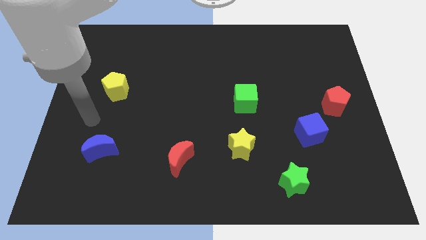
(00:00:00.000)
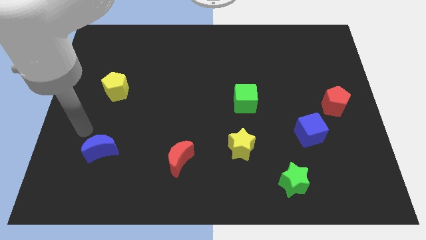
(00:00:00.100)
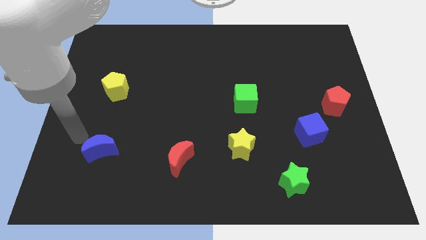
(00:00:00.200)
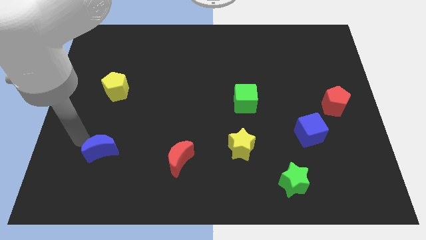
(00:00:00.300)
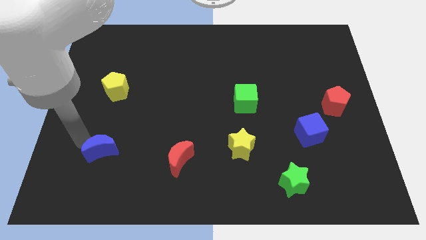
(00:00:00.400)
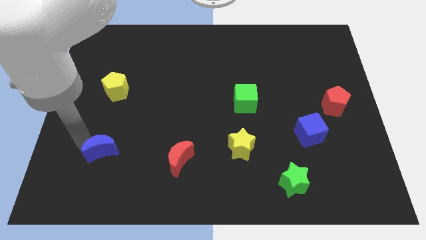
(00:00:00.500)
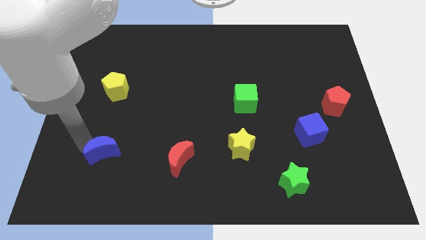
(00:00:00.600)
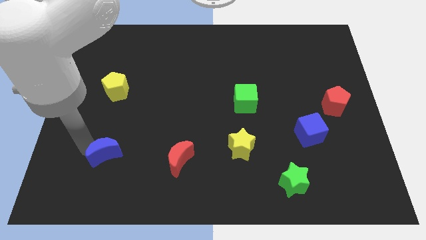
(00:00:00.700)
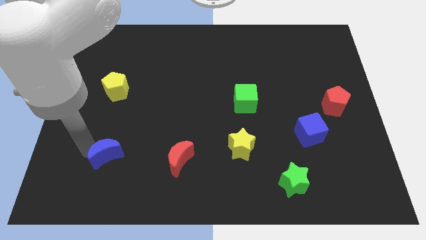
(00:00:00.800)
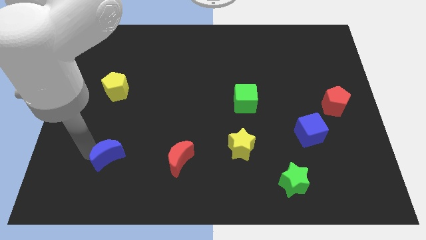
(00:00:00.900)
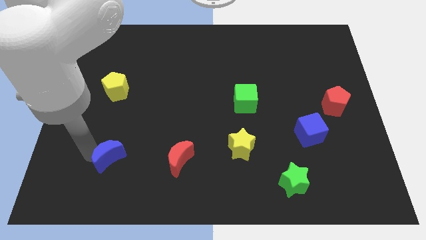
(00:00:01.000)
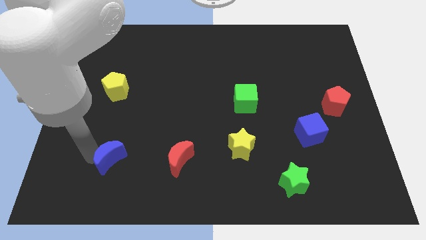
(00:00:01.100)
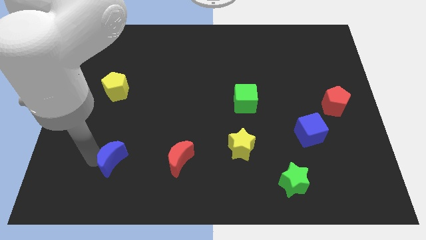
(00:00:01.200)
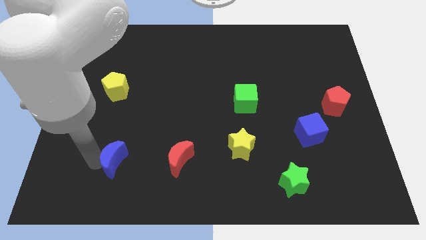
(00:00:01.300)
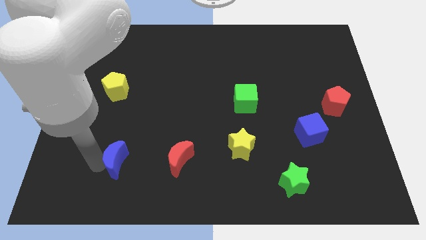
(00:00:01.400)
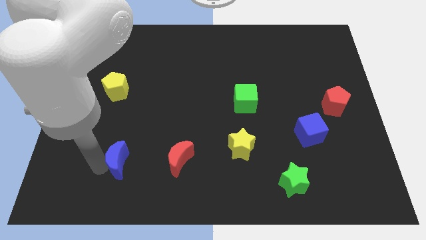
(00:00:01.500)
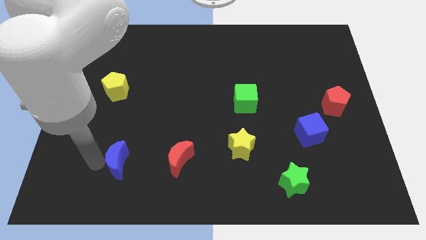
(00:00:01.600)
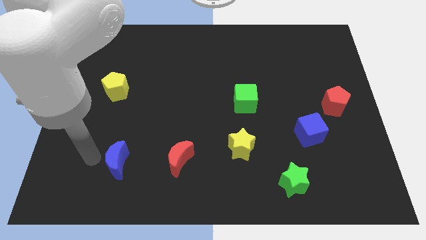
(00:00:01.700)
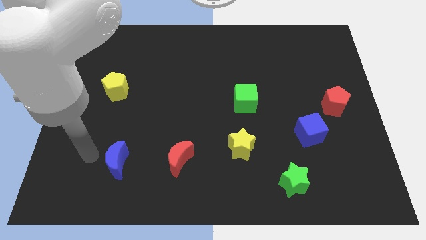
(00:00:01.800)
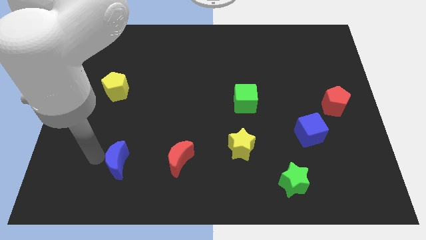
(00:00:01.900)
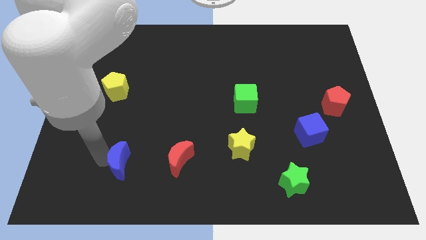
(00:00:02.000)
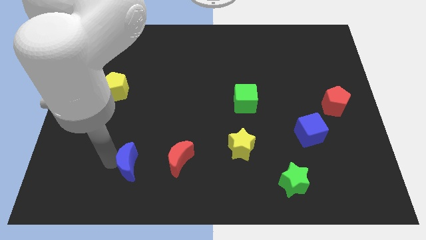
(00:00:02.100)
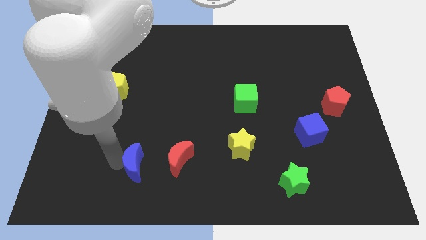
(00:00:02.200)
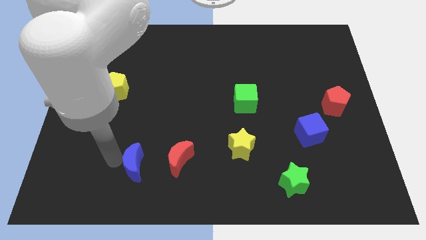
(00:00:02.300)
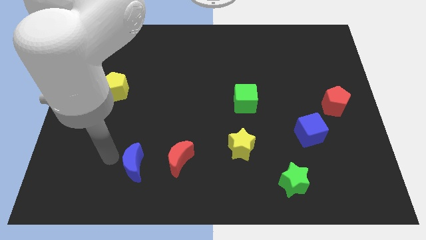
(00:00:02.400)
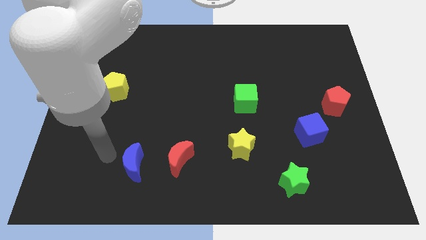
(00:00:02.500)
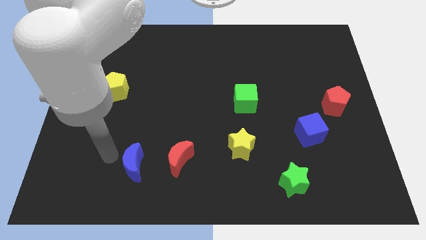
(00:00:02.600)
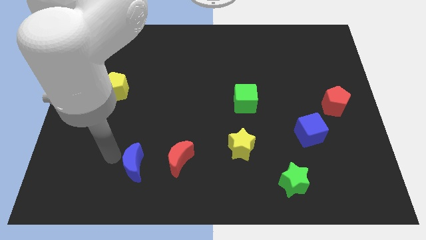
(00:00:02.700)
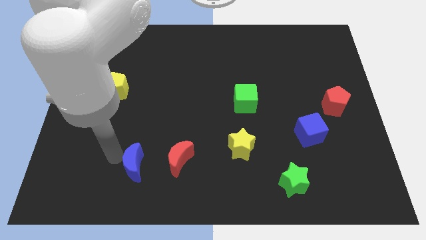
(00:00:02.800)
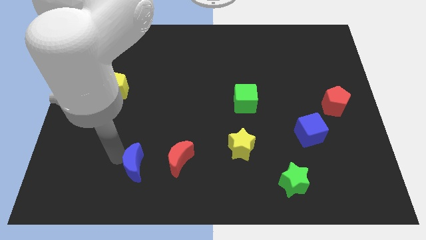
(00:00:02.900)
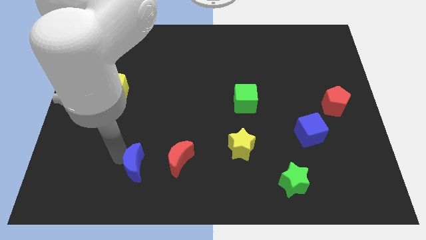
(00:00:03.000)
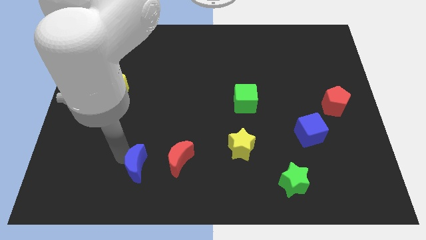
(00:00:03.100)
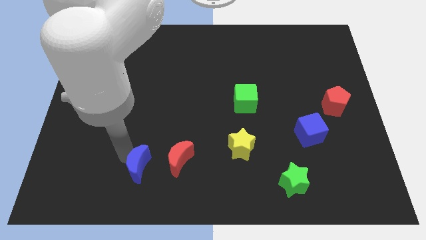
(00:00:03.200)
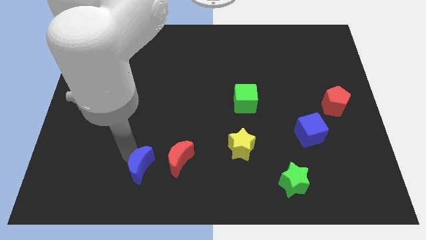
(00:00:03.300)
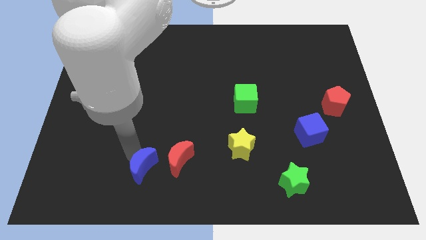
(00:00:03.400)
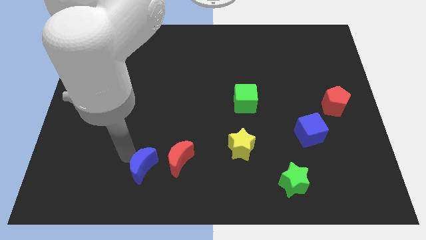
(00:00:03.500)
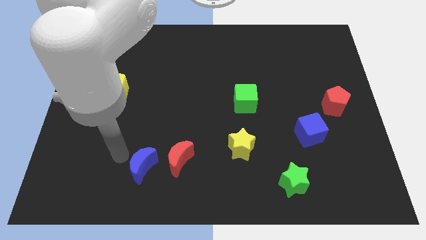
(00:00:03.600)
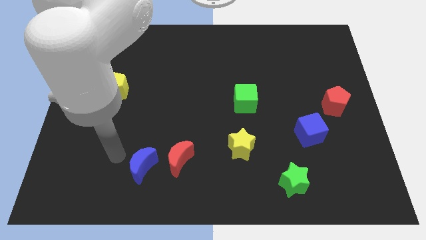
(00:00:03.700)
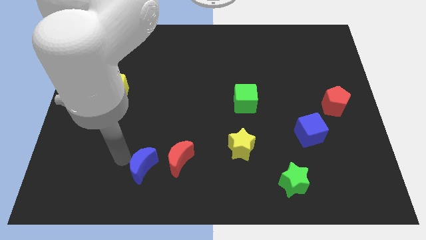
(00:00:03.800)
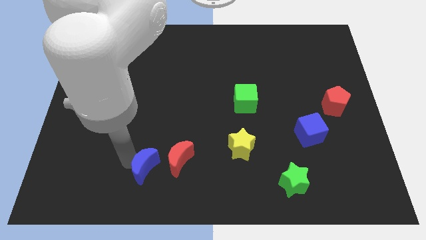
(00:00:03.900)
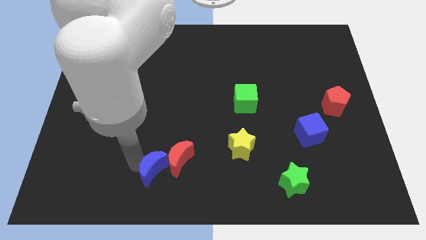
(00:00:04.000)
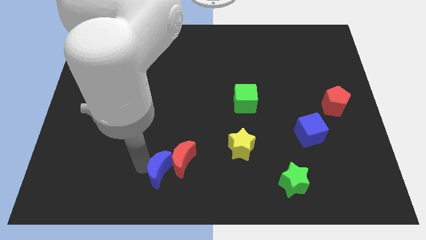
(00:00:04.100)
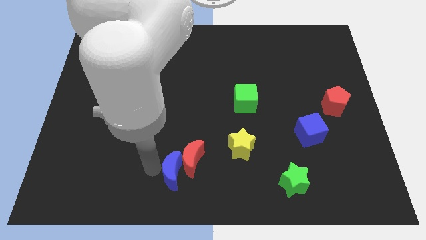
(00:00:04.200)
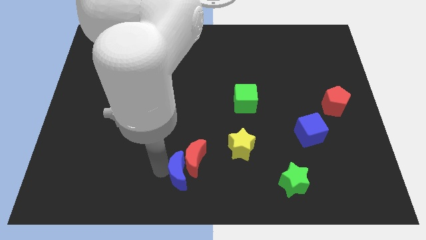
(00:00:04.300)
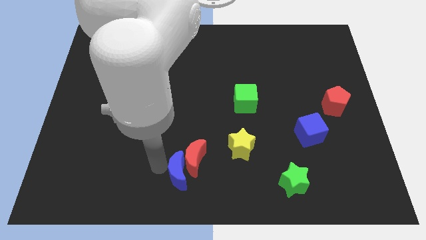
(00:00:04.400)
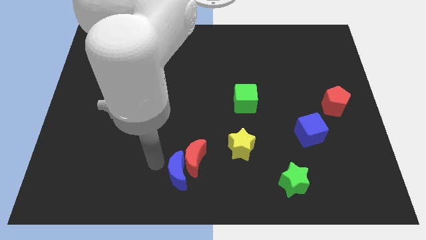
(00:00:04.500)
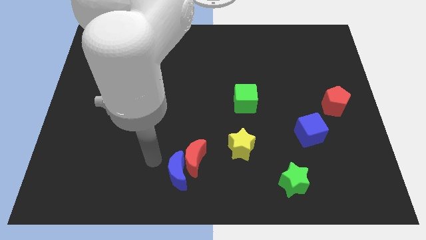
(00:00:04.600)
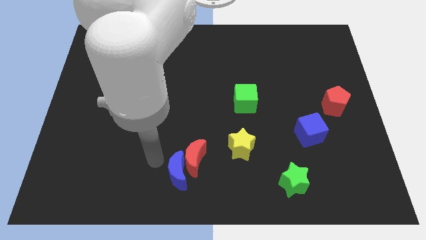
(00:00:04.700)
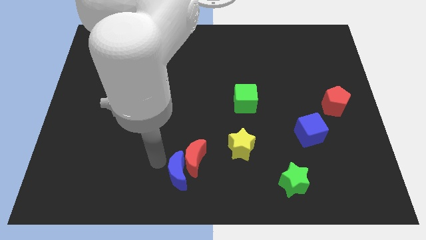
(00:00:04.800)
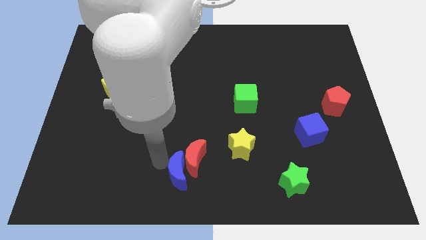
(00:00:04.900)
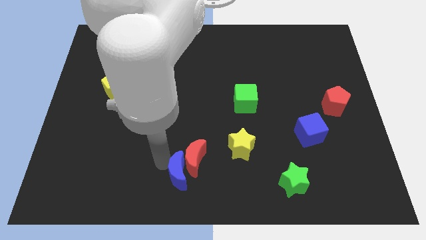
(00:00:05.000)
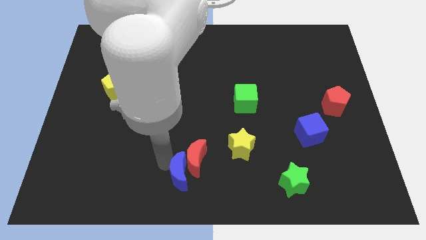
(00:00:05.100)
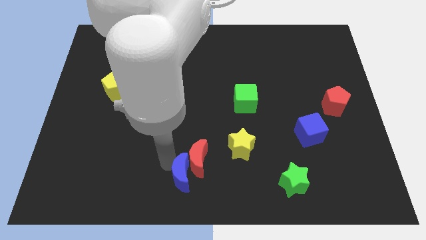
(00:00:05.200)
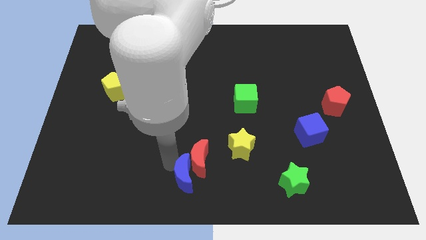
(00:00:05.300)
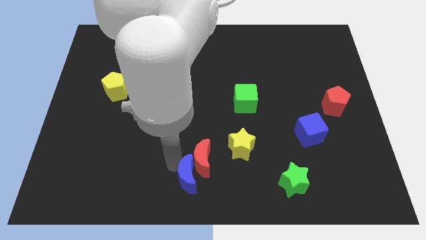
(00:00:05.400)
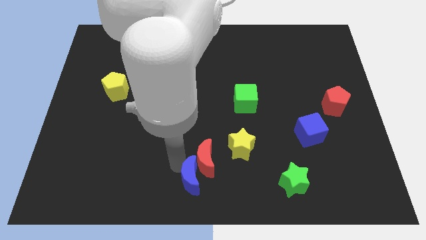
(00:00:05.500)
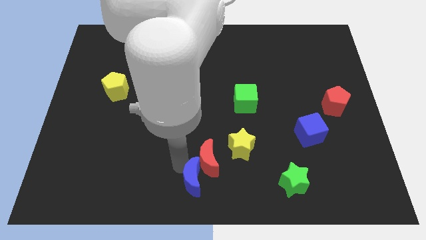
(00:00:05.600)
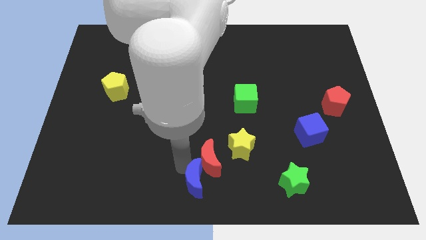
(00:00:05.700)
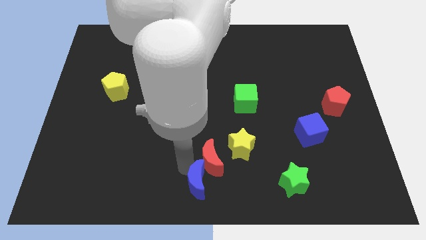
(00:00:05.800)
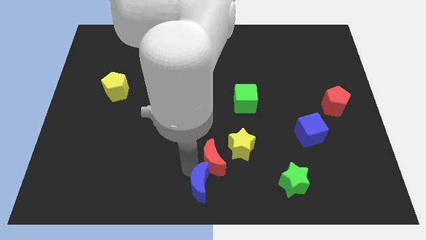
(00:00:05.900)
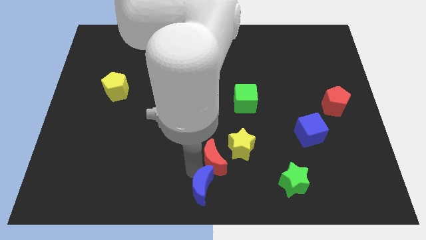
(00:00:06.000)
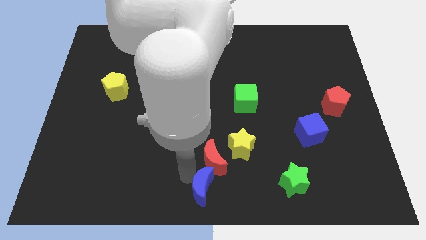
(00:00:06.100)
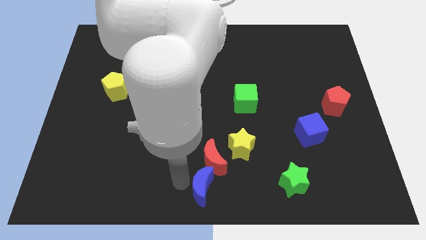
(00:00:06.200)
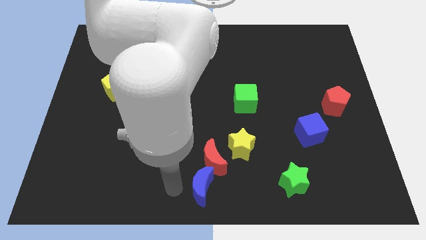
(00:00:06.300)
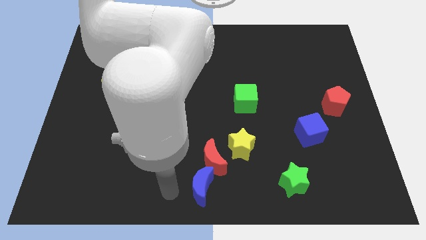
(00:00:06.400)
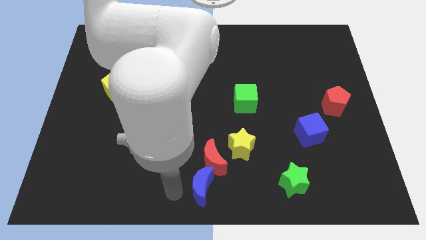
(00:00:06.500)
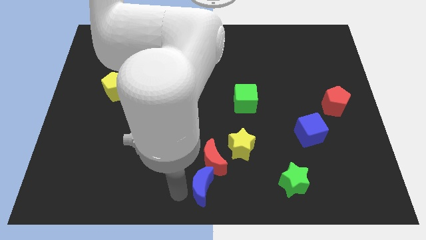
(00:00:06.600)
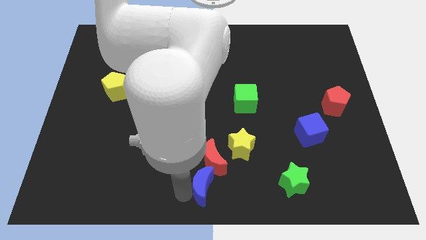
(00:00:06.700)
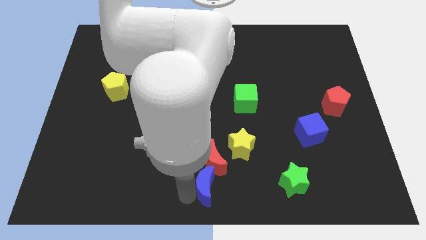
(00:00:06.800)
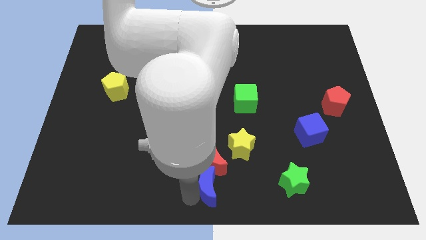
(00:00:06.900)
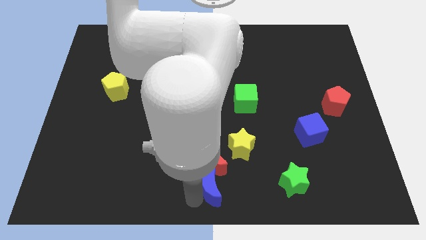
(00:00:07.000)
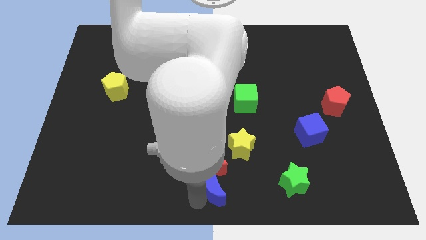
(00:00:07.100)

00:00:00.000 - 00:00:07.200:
move the blue moon to the left side of the green star
